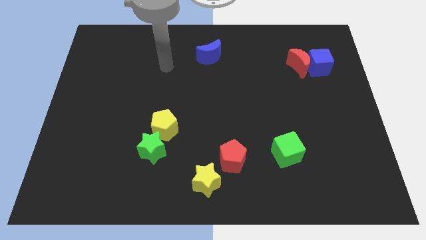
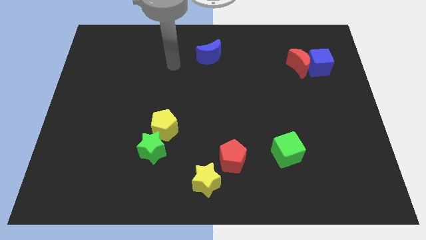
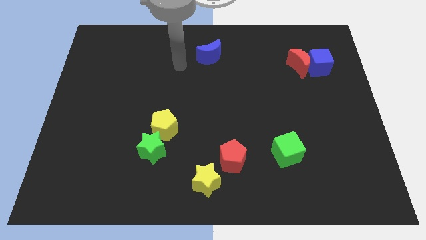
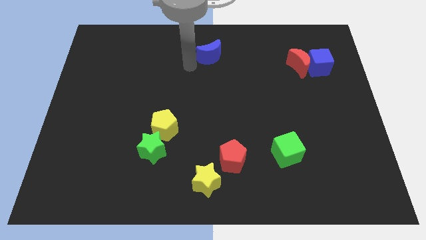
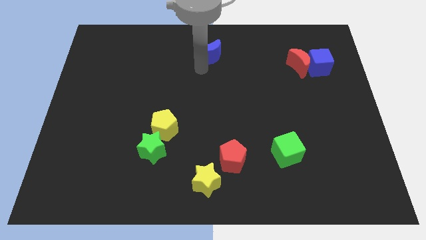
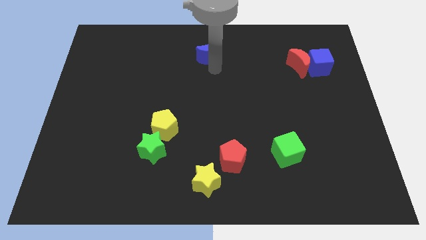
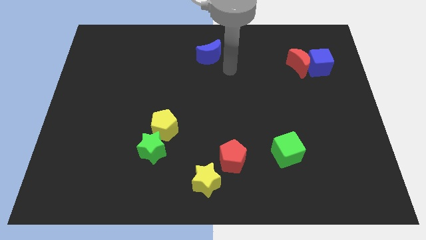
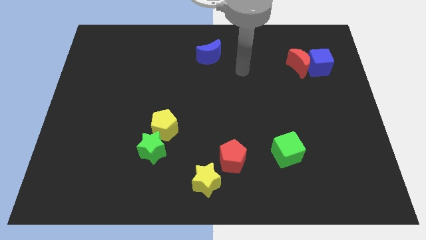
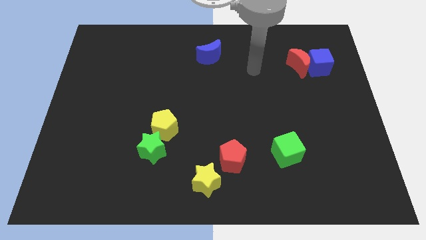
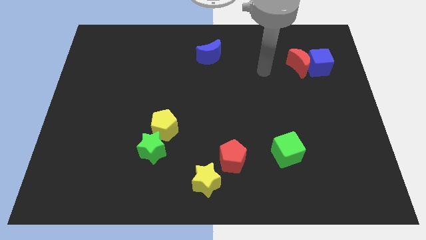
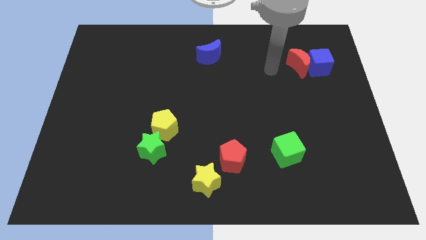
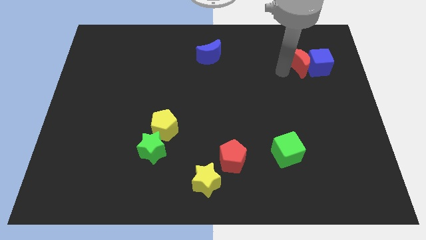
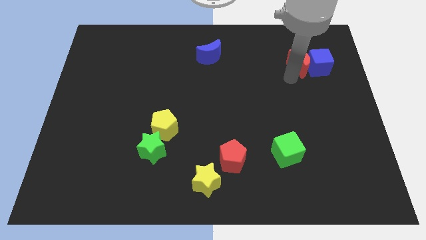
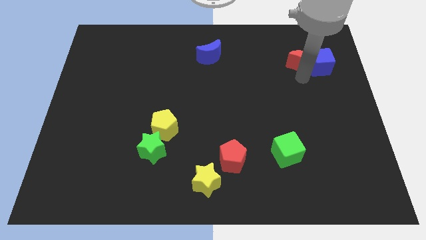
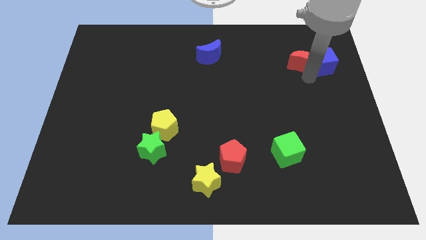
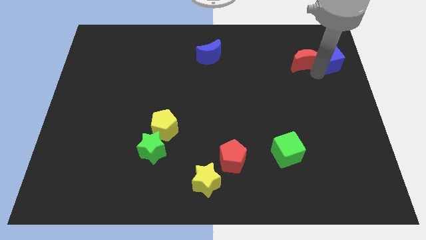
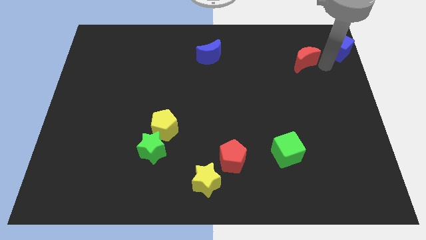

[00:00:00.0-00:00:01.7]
pull the red moon apart from the blue cube

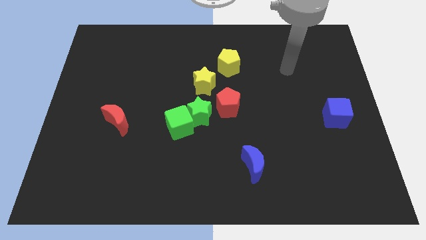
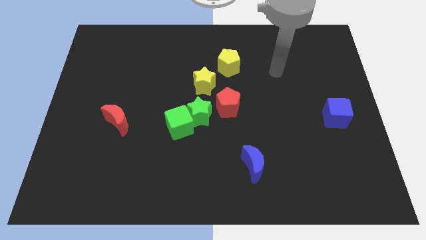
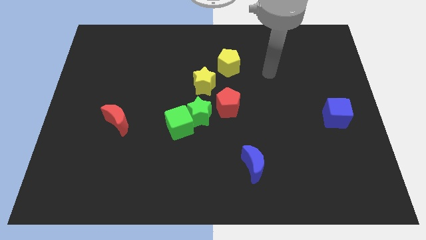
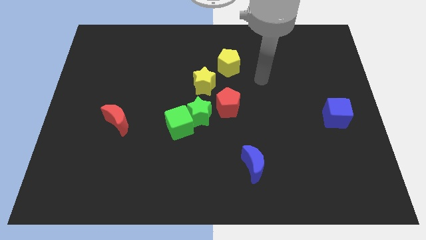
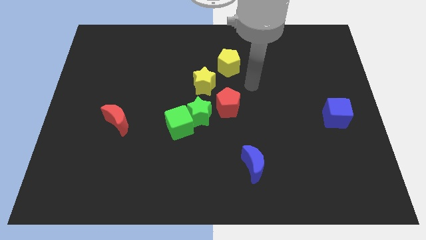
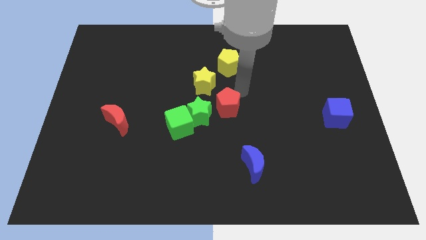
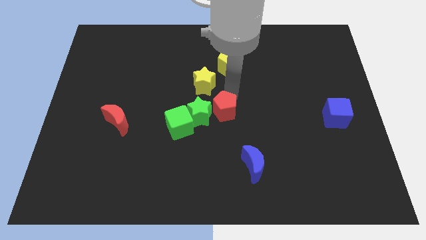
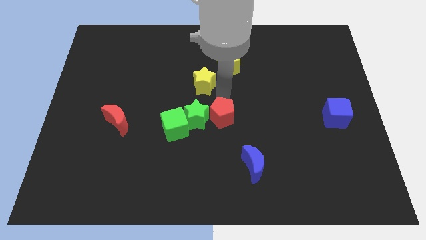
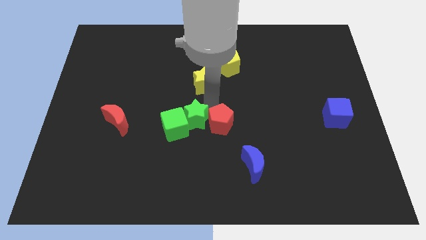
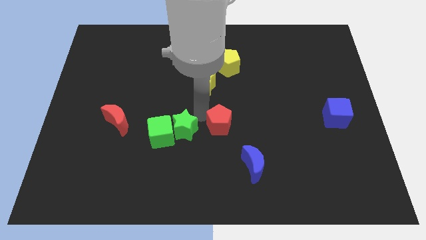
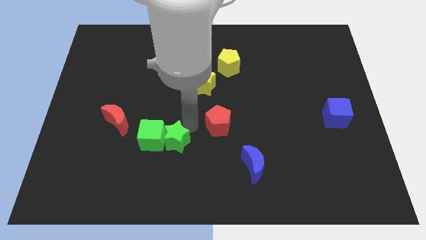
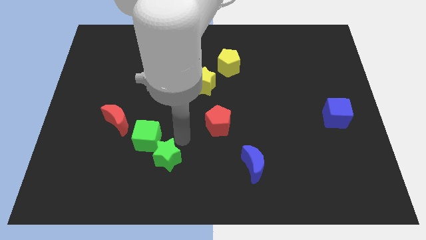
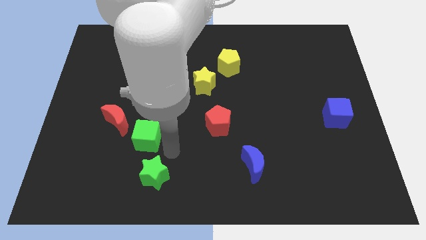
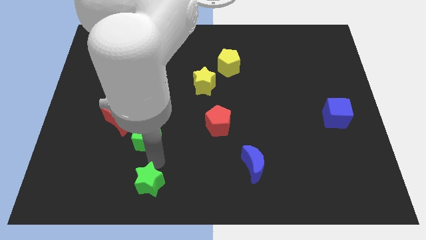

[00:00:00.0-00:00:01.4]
pull the green cube apart from the green star

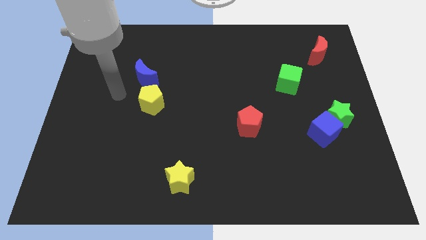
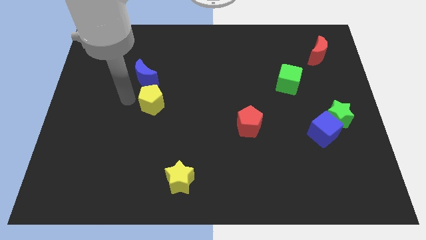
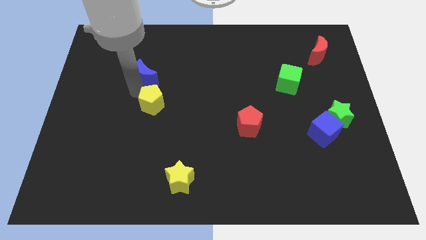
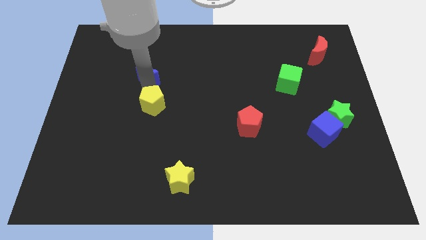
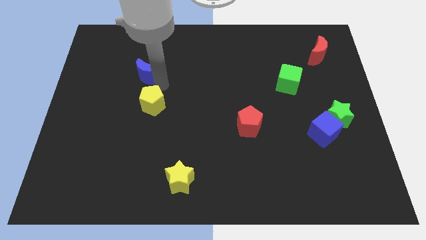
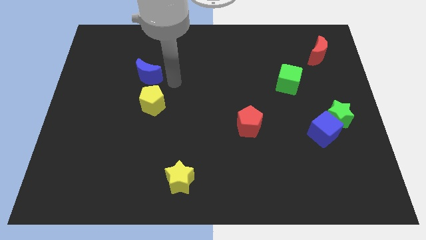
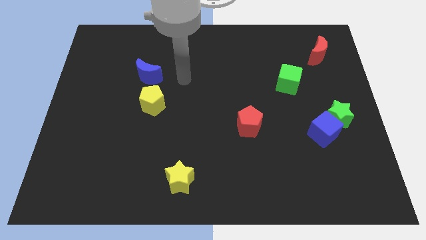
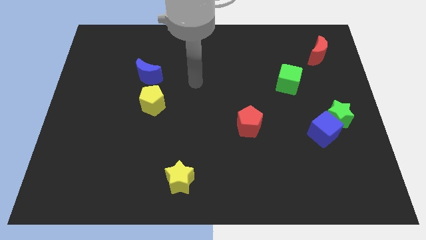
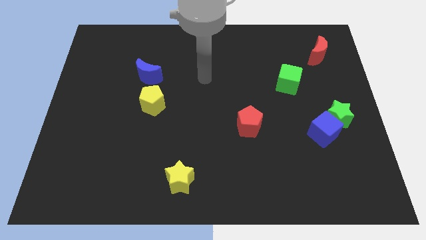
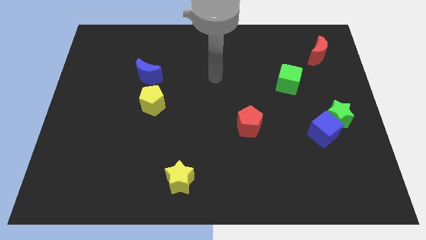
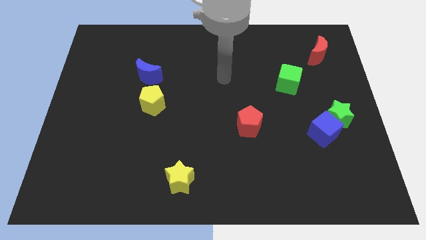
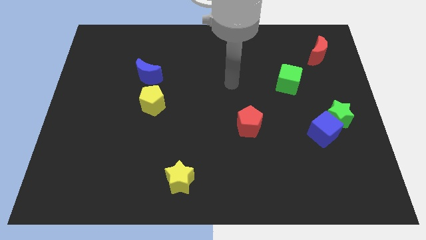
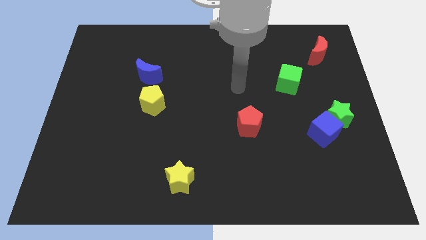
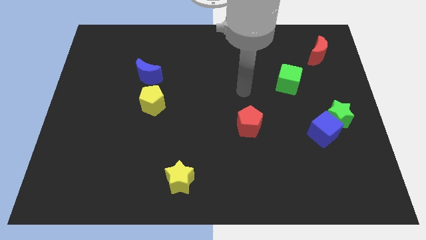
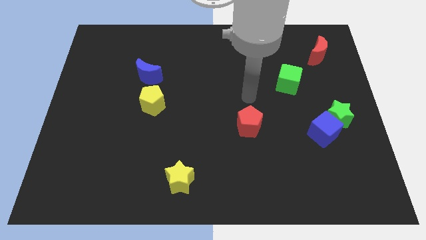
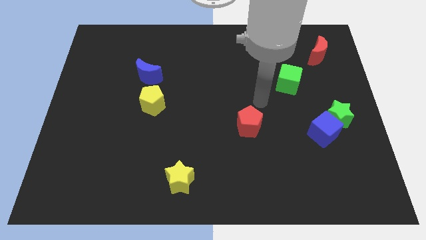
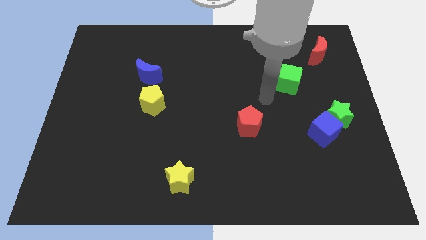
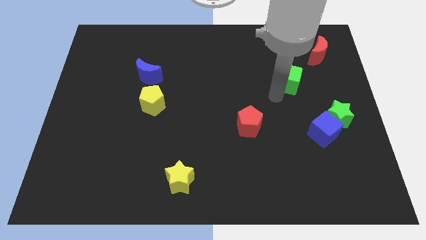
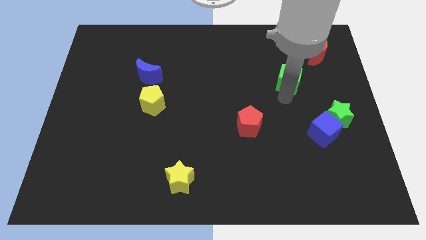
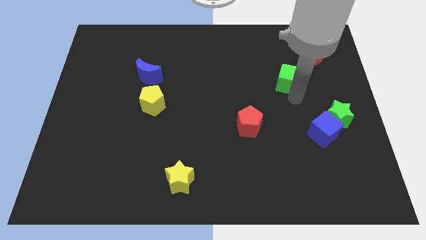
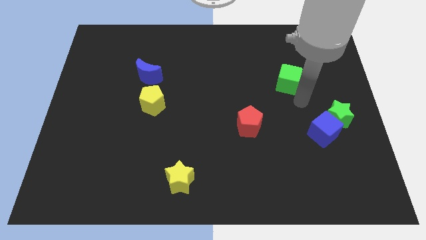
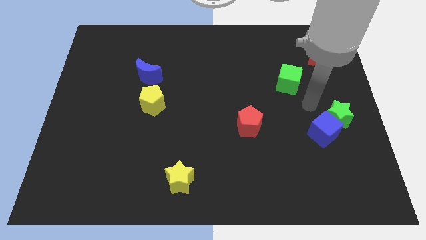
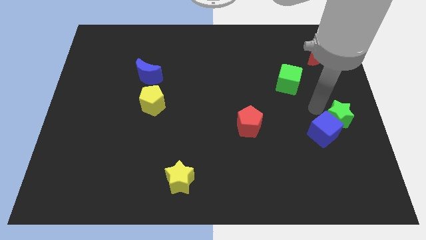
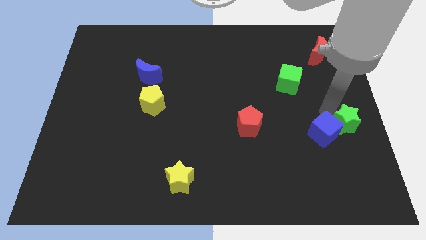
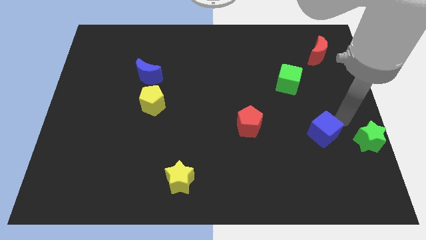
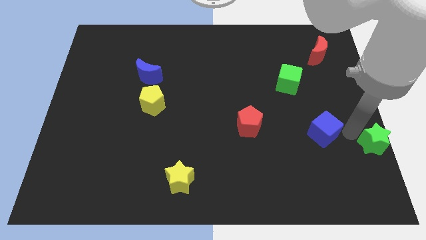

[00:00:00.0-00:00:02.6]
move the blue cube away from the green star

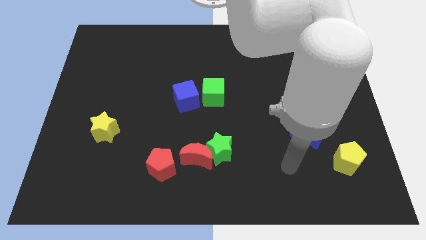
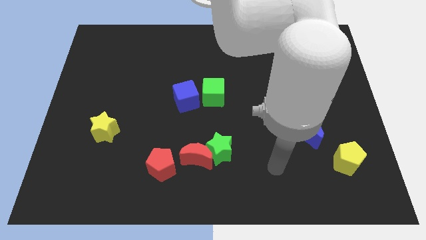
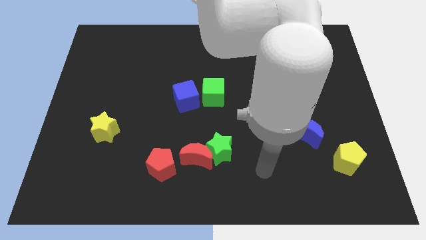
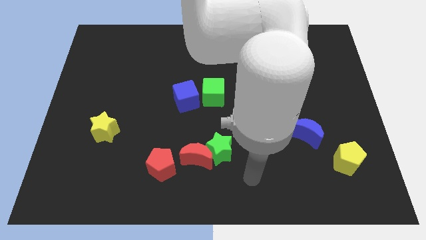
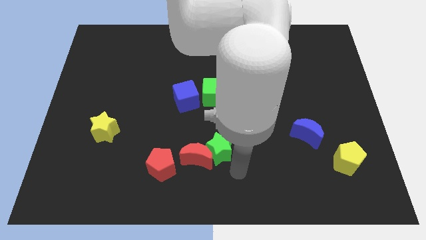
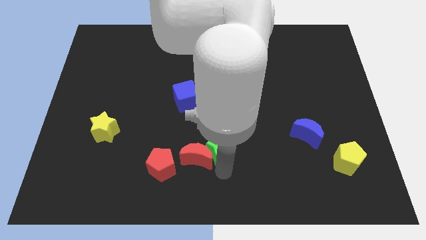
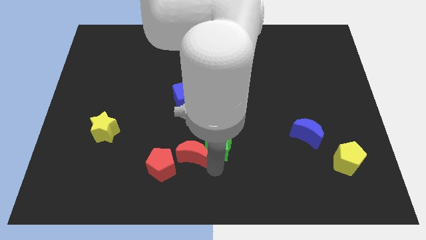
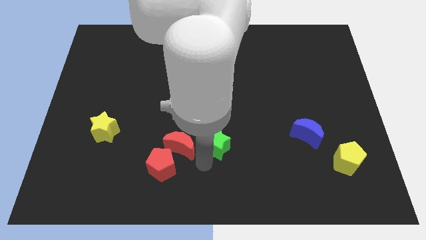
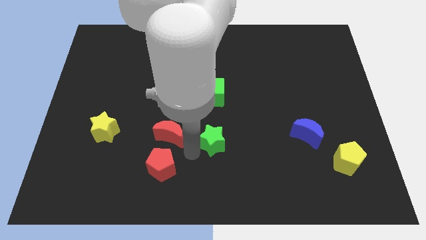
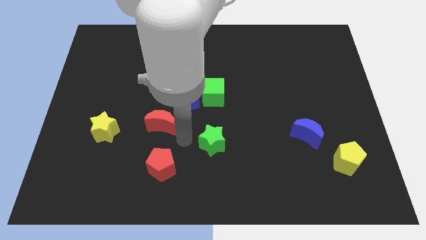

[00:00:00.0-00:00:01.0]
separate the green star from the red moon

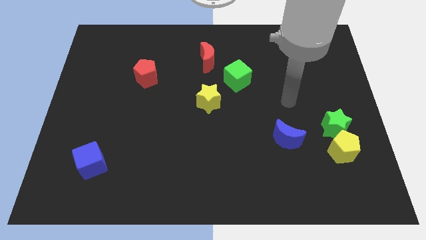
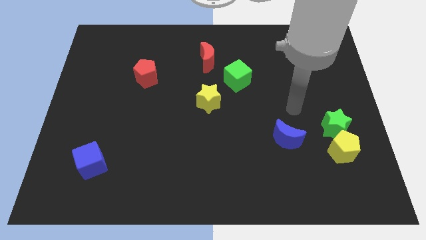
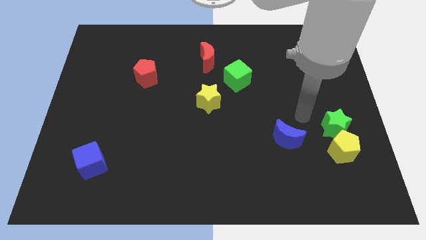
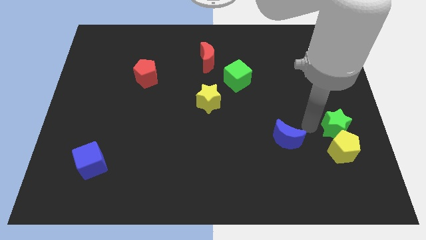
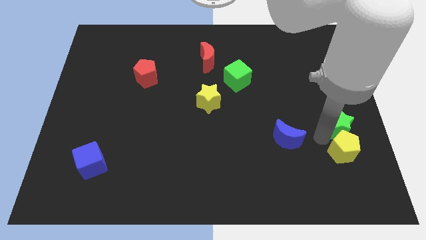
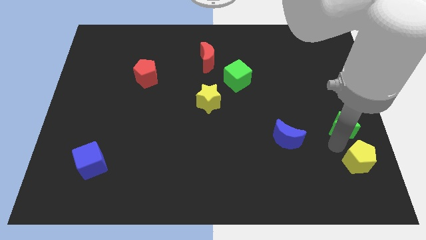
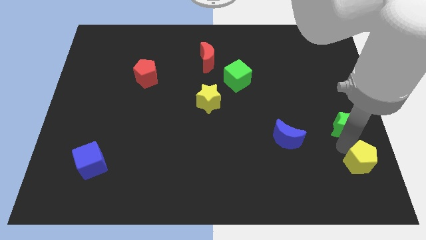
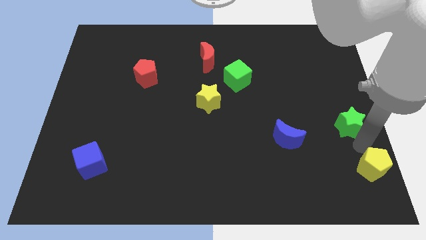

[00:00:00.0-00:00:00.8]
pull the green star apart from the yellow pentagon

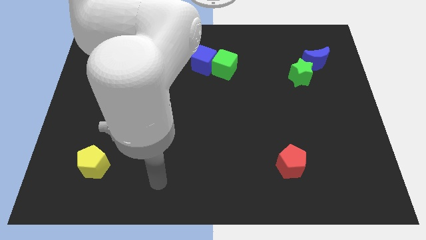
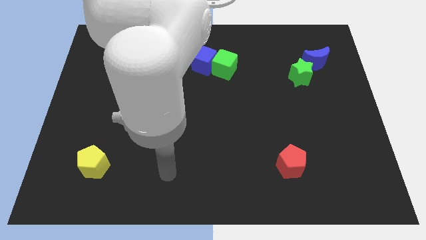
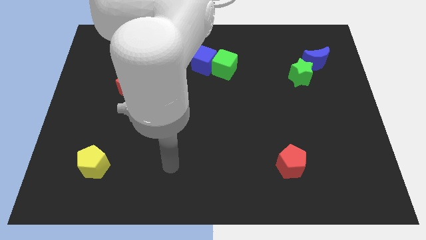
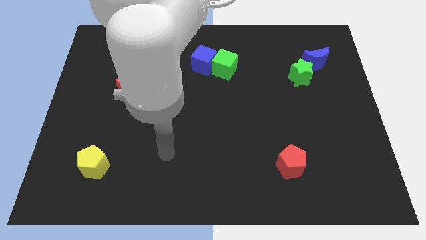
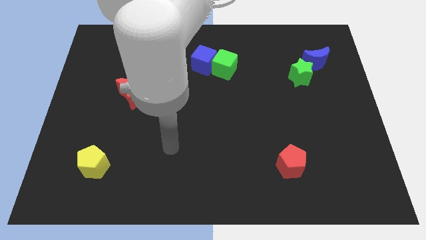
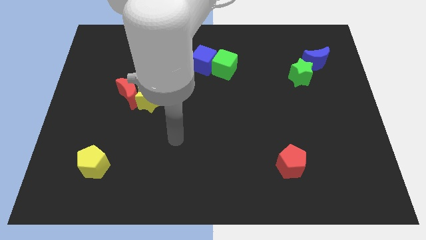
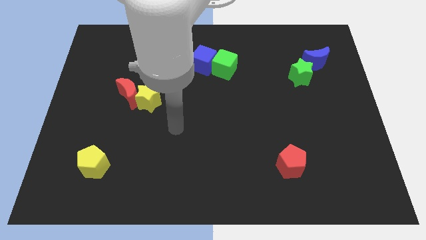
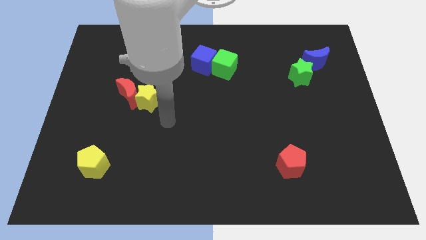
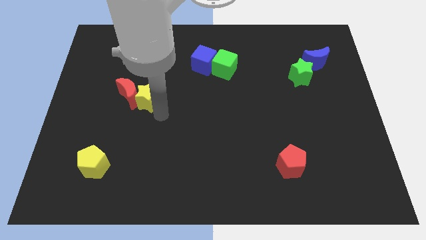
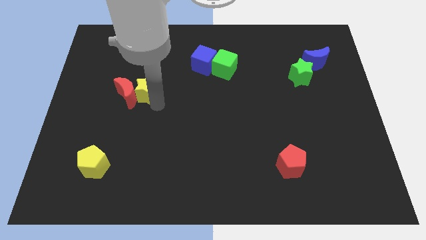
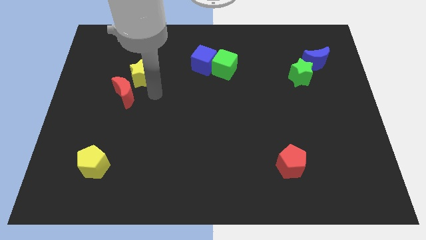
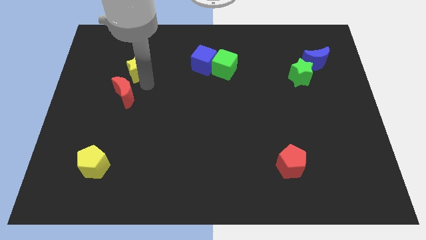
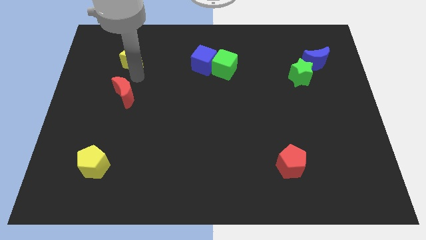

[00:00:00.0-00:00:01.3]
pull the red moon apart from the yellow star

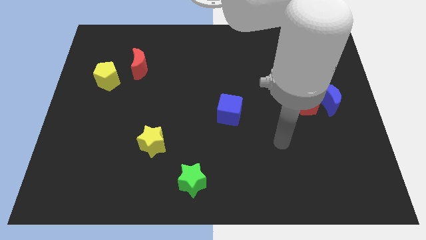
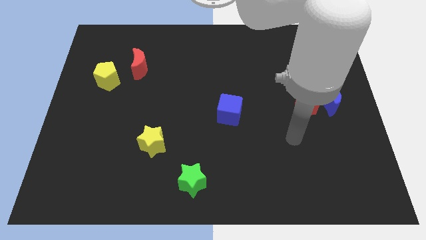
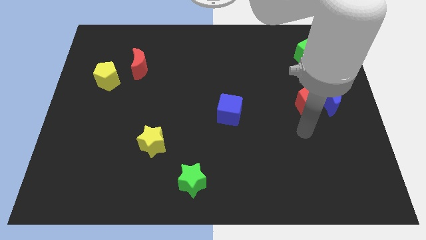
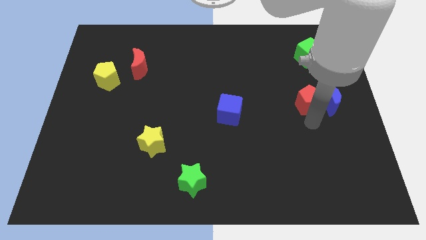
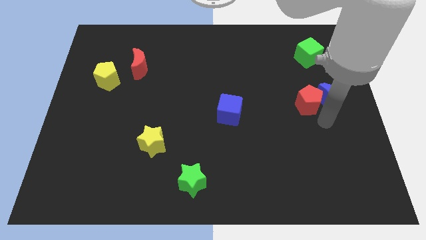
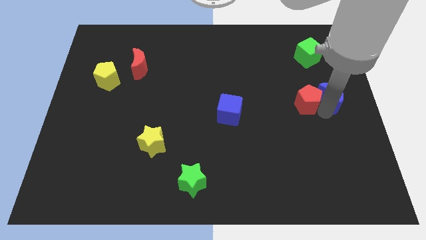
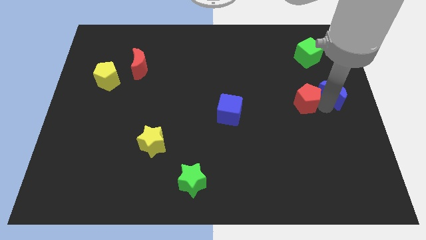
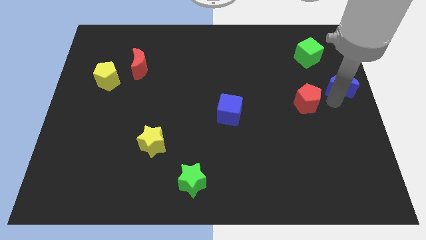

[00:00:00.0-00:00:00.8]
move the red pentagon away from the blue moon
